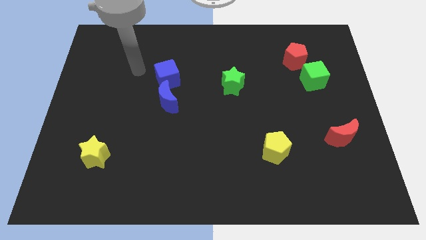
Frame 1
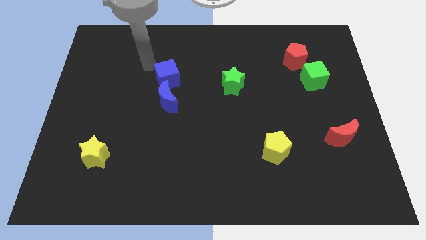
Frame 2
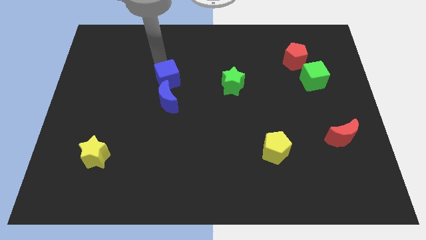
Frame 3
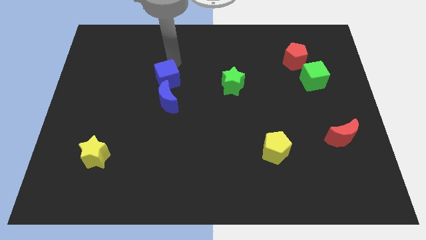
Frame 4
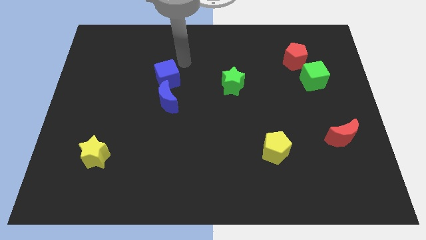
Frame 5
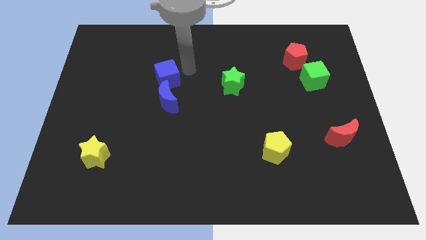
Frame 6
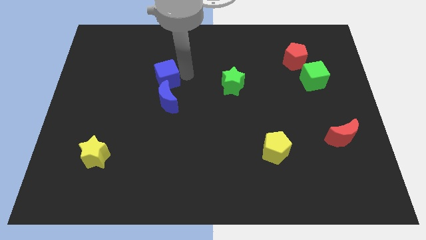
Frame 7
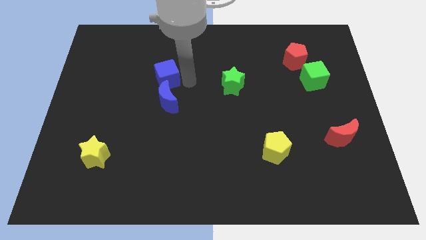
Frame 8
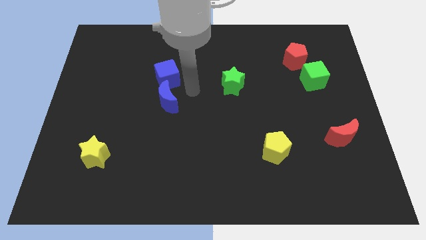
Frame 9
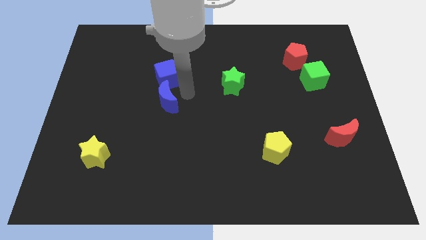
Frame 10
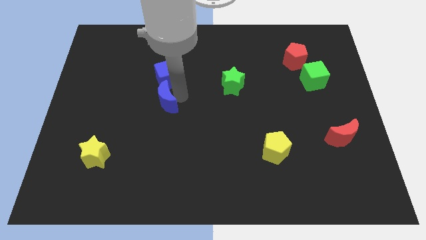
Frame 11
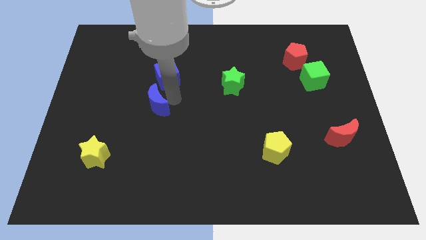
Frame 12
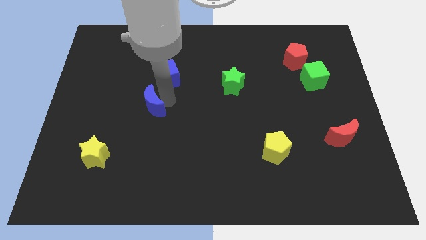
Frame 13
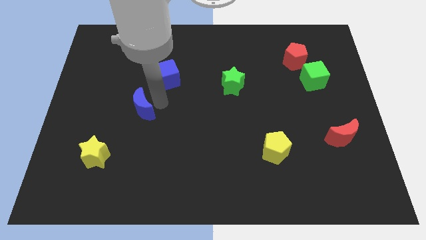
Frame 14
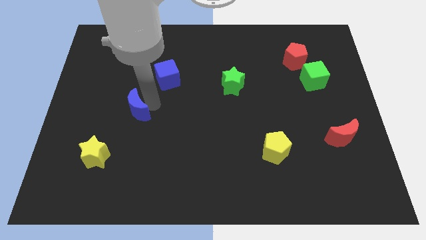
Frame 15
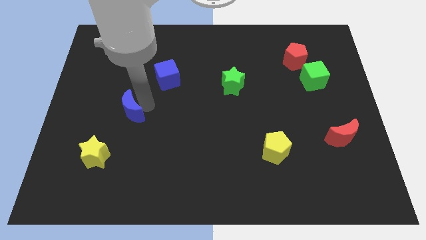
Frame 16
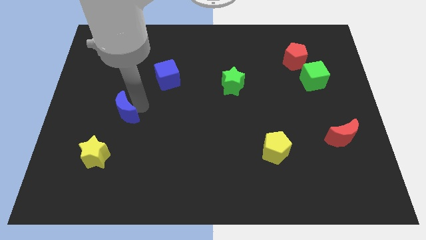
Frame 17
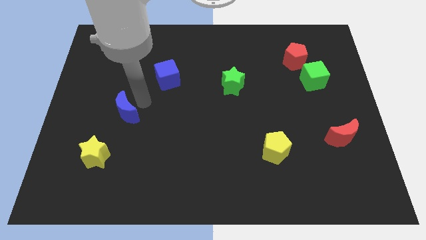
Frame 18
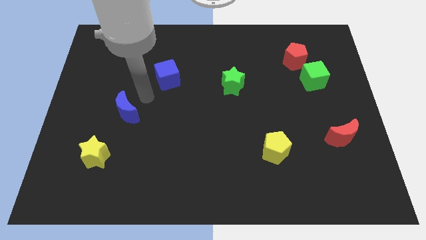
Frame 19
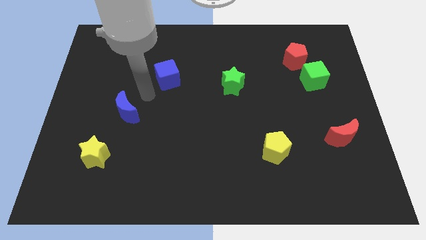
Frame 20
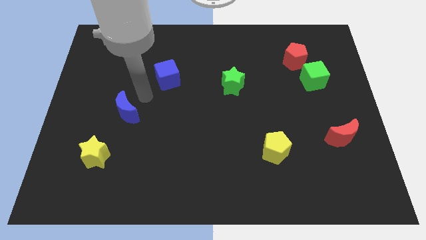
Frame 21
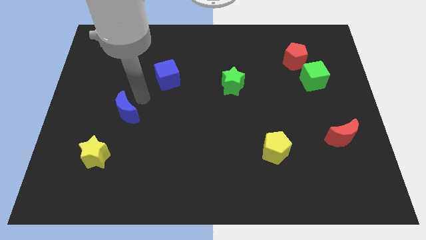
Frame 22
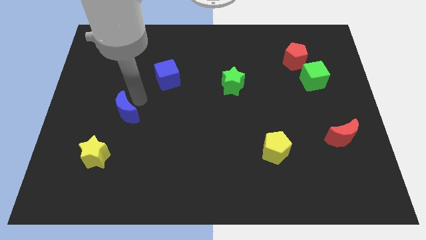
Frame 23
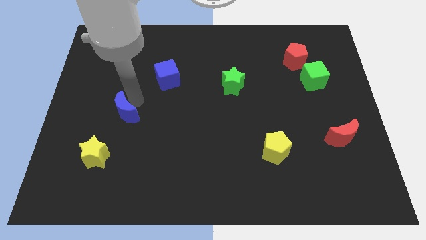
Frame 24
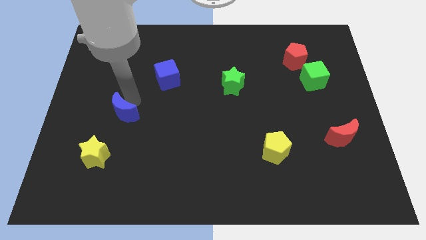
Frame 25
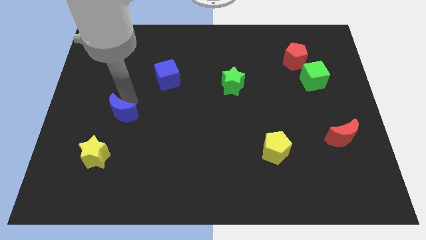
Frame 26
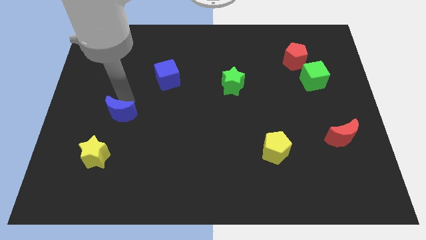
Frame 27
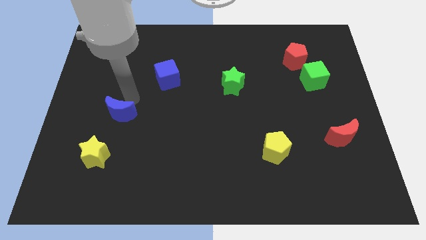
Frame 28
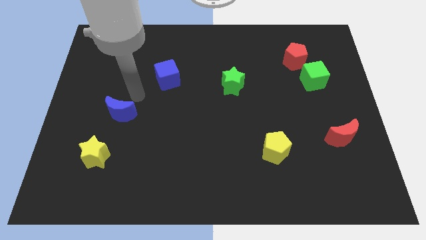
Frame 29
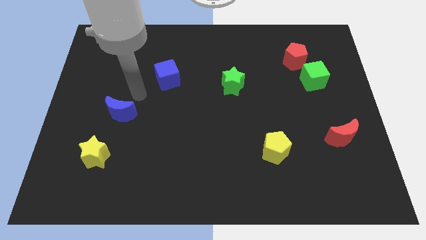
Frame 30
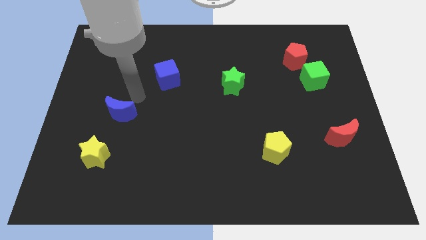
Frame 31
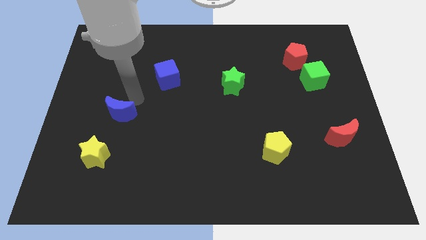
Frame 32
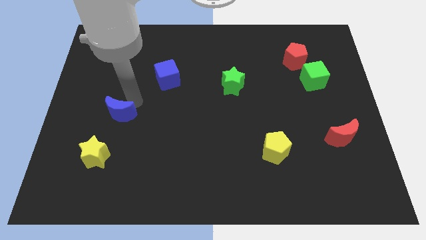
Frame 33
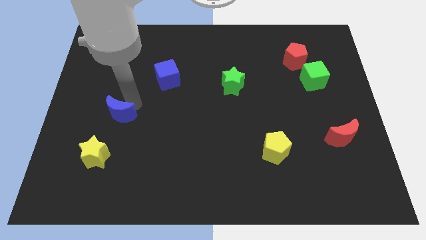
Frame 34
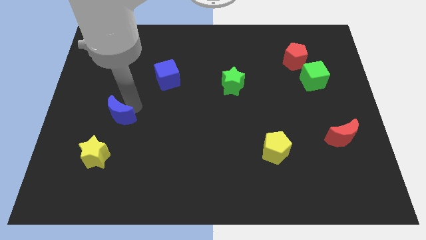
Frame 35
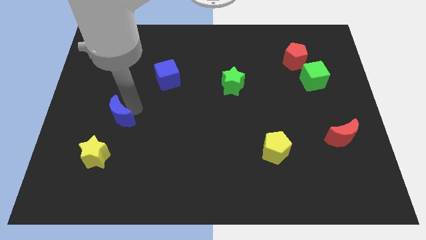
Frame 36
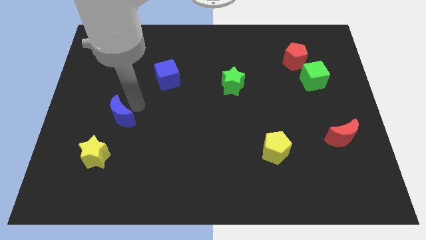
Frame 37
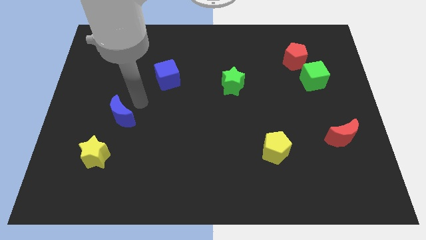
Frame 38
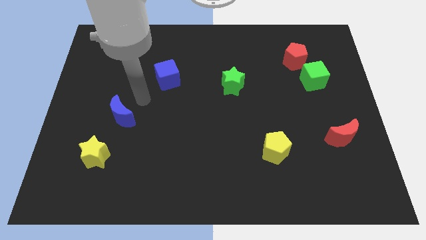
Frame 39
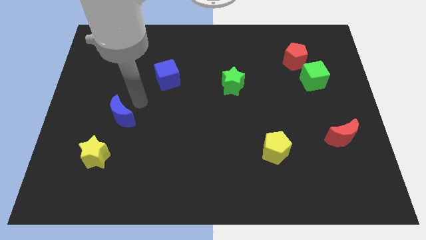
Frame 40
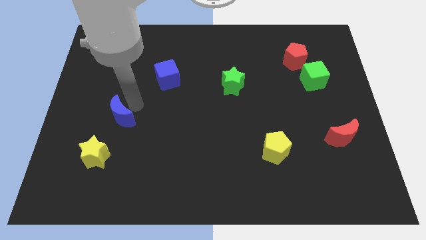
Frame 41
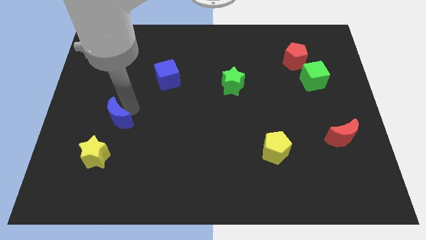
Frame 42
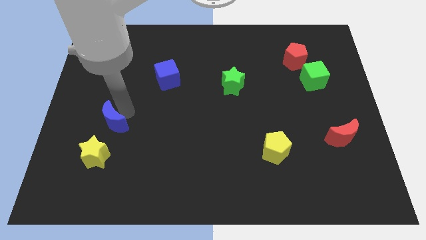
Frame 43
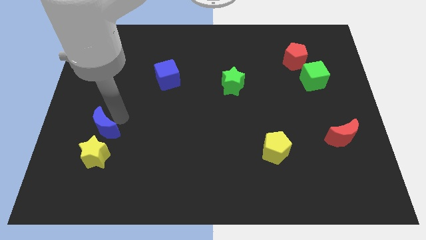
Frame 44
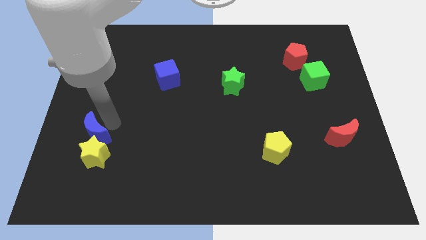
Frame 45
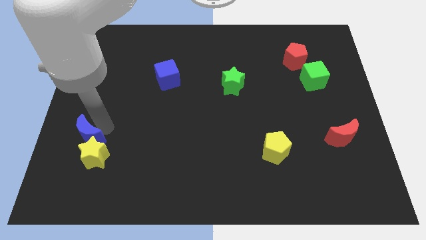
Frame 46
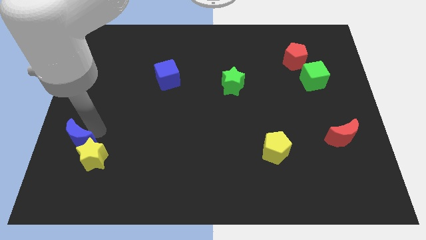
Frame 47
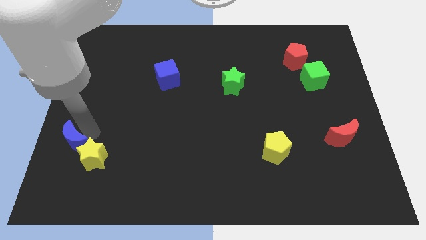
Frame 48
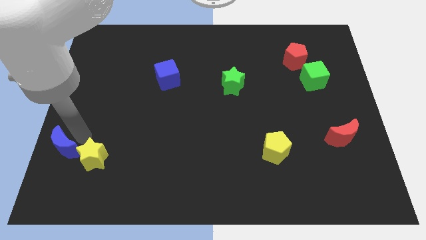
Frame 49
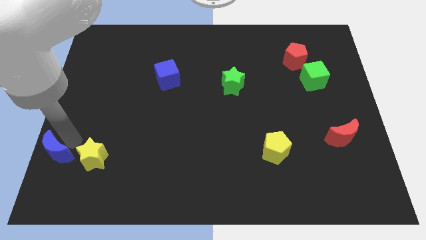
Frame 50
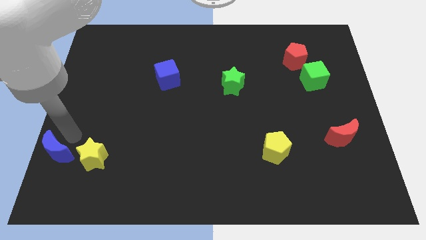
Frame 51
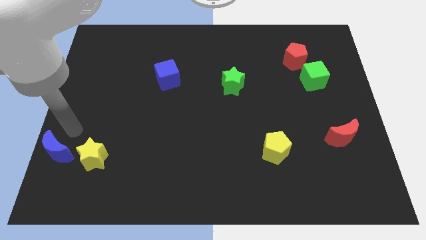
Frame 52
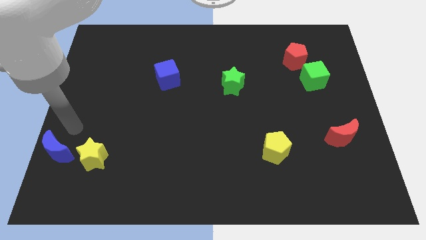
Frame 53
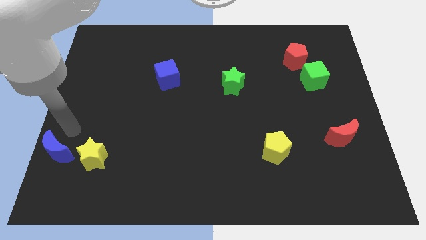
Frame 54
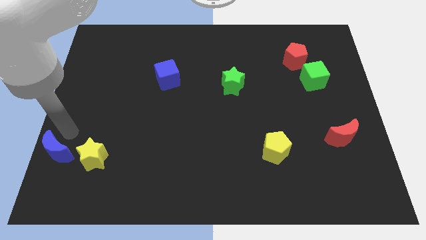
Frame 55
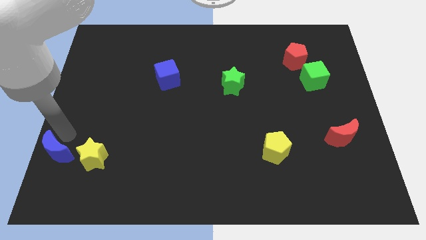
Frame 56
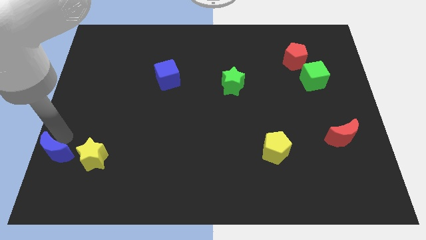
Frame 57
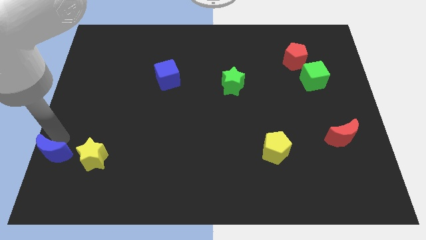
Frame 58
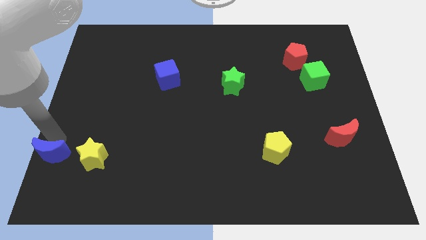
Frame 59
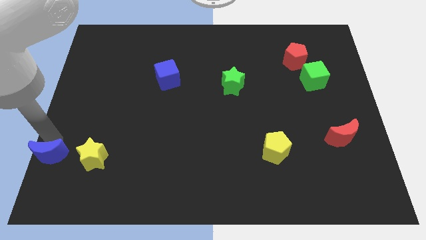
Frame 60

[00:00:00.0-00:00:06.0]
slide the blue moon to the bottom left
